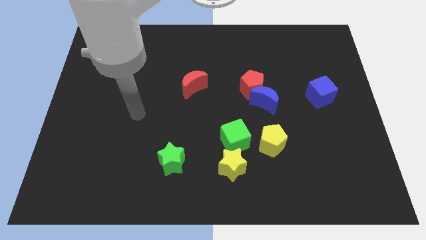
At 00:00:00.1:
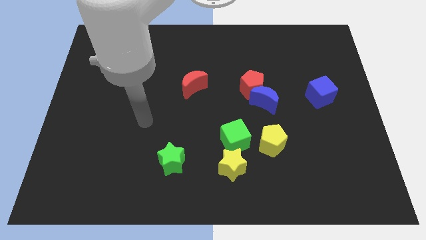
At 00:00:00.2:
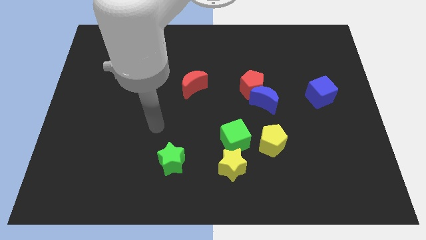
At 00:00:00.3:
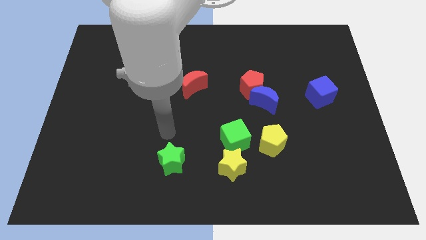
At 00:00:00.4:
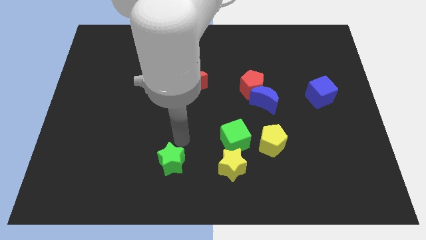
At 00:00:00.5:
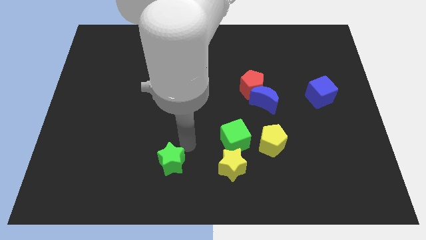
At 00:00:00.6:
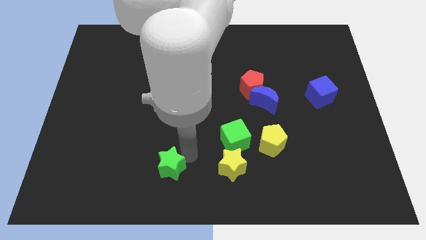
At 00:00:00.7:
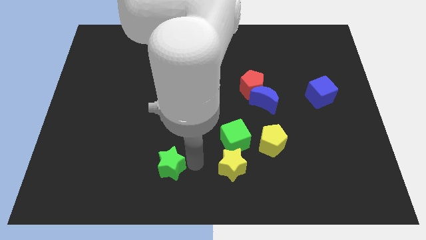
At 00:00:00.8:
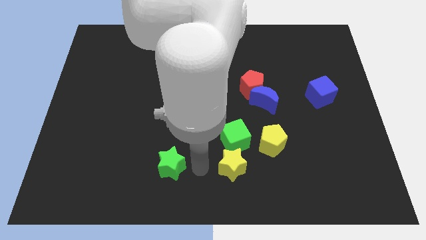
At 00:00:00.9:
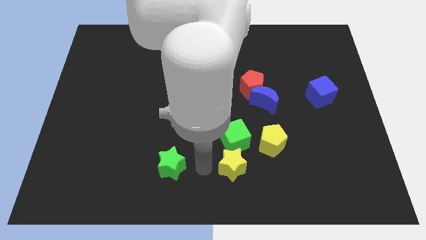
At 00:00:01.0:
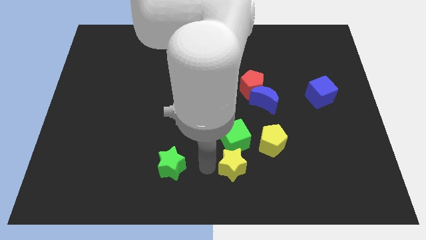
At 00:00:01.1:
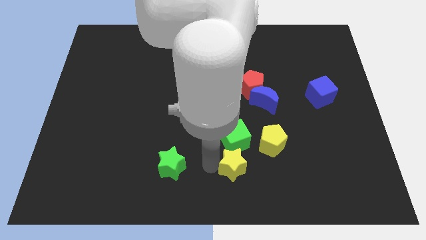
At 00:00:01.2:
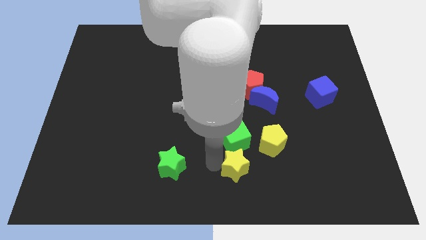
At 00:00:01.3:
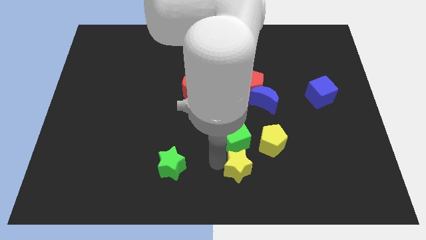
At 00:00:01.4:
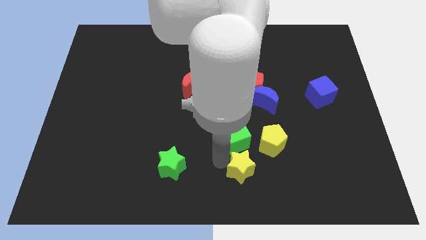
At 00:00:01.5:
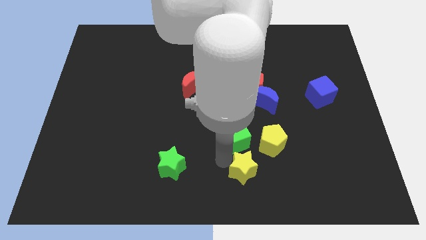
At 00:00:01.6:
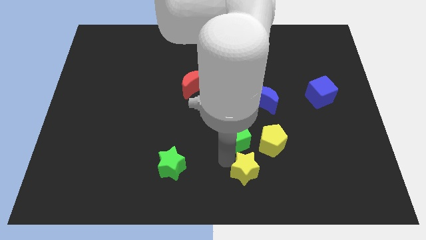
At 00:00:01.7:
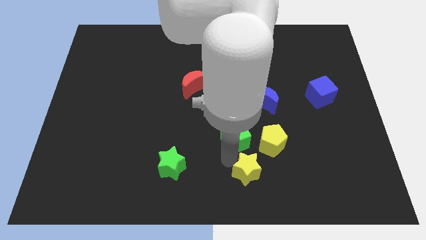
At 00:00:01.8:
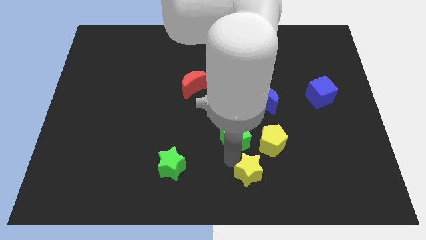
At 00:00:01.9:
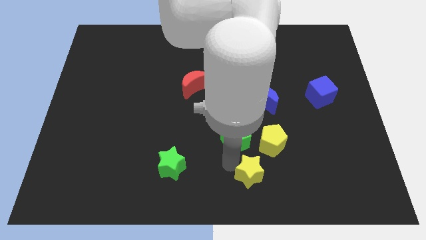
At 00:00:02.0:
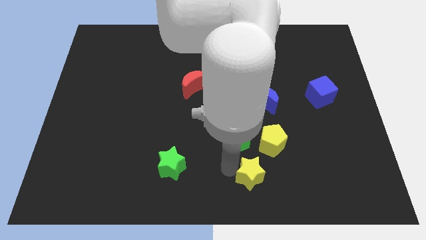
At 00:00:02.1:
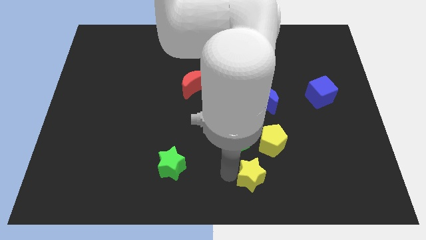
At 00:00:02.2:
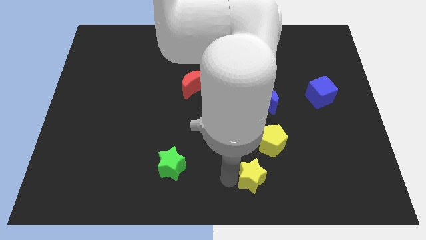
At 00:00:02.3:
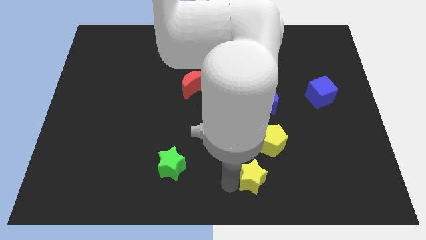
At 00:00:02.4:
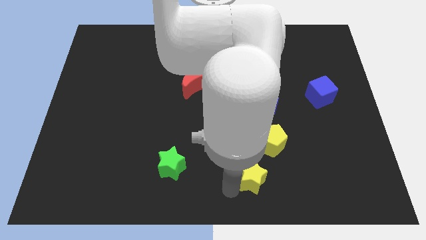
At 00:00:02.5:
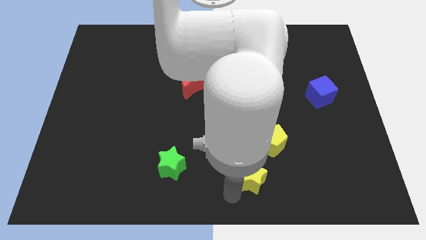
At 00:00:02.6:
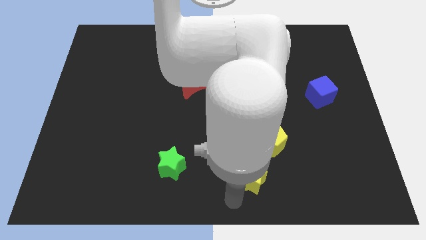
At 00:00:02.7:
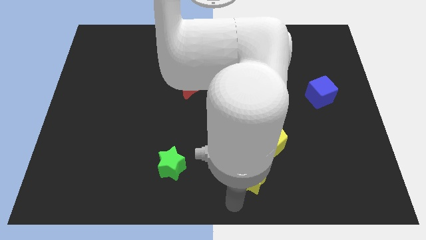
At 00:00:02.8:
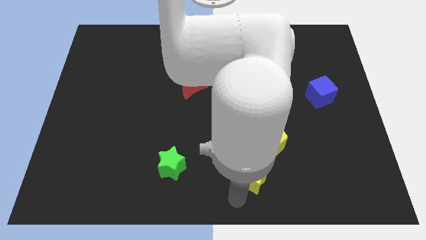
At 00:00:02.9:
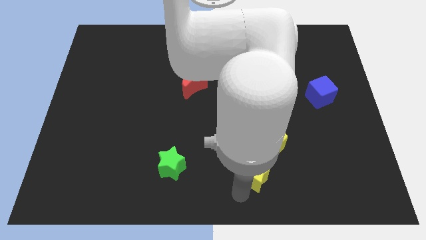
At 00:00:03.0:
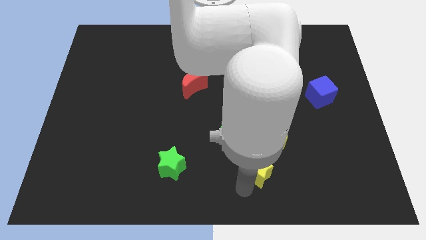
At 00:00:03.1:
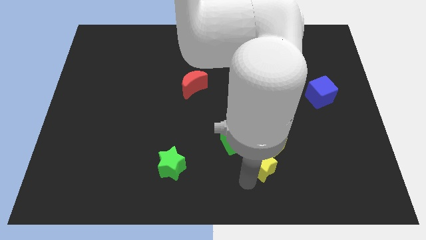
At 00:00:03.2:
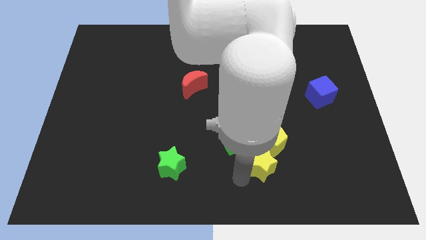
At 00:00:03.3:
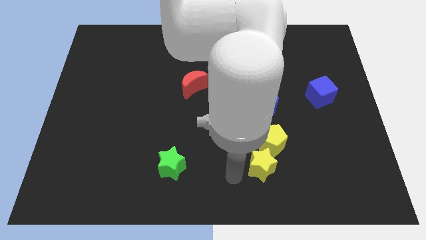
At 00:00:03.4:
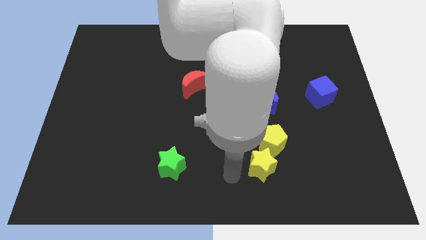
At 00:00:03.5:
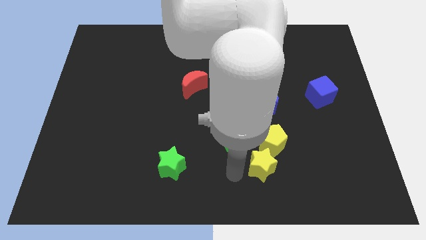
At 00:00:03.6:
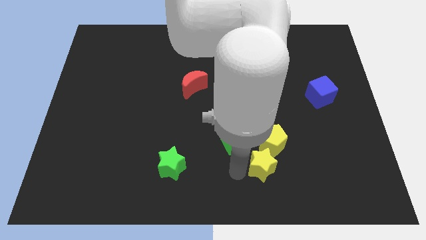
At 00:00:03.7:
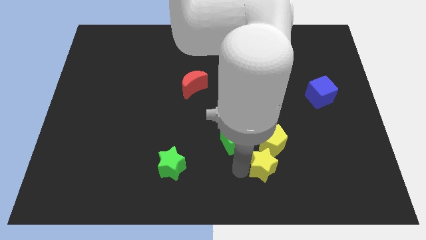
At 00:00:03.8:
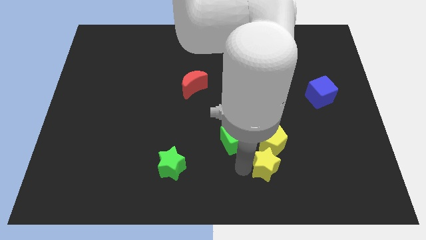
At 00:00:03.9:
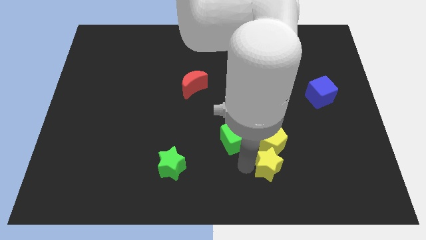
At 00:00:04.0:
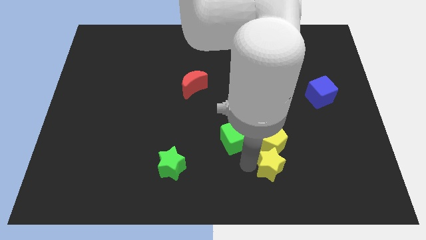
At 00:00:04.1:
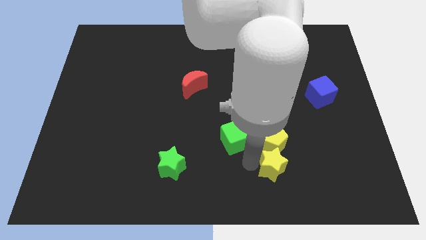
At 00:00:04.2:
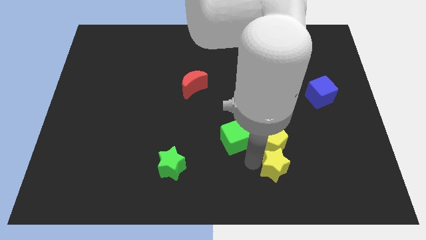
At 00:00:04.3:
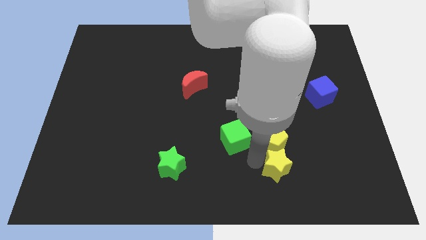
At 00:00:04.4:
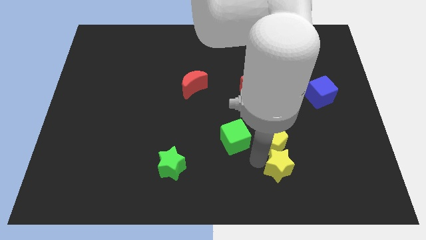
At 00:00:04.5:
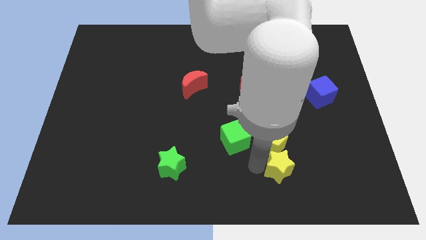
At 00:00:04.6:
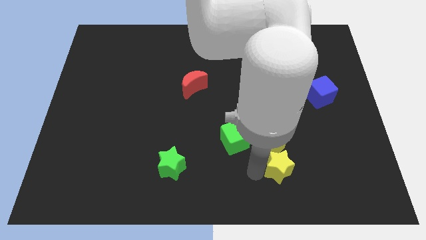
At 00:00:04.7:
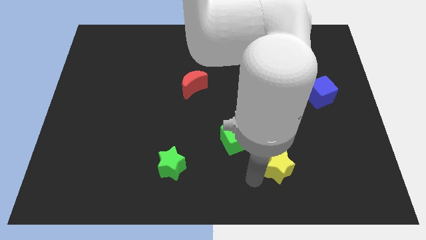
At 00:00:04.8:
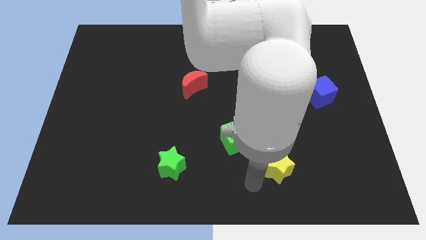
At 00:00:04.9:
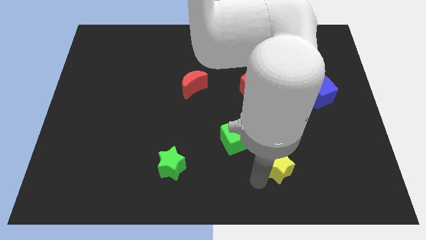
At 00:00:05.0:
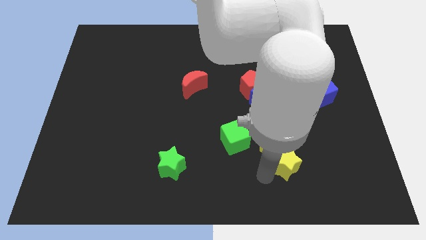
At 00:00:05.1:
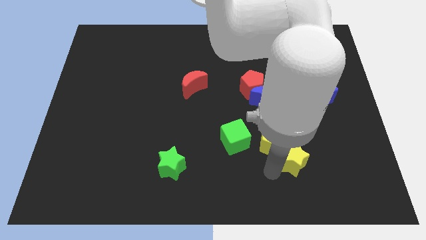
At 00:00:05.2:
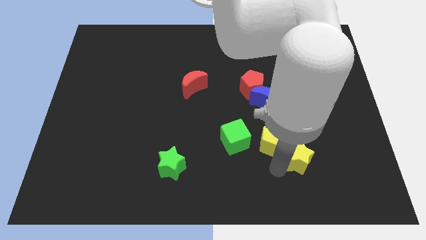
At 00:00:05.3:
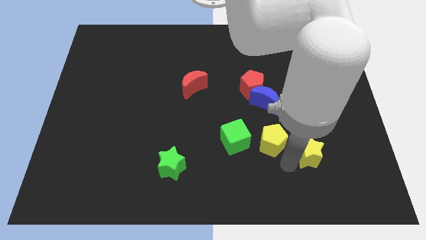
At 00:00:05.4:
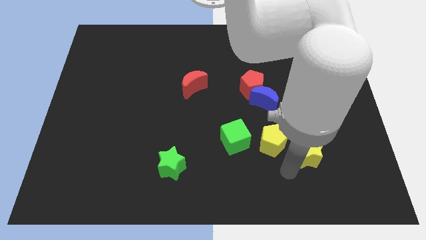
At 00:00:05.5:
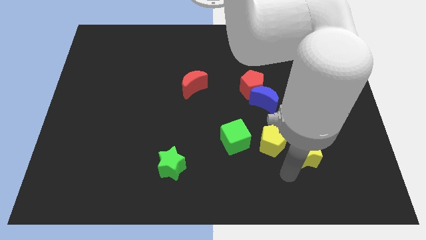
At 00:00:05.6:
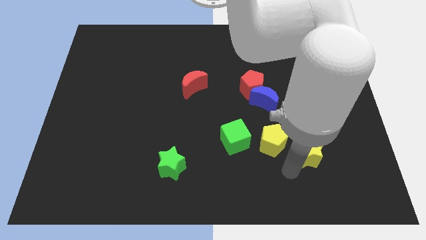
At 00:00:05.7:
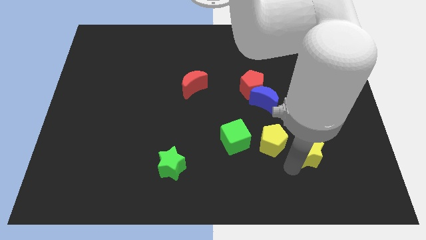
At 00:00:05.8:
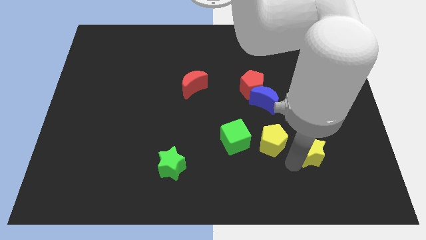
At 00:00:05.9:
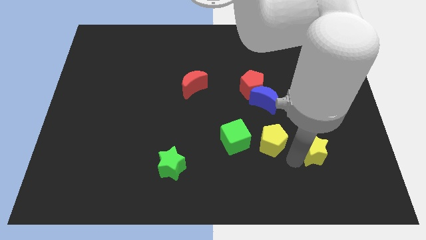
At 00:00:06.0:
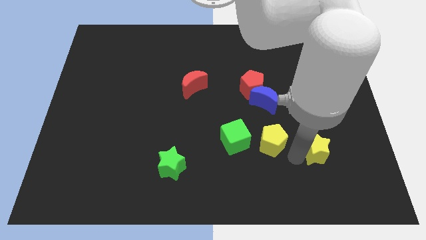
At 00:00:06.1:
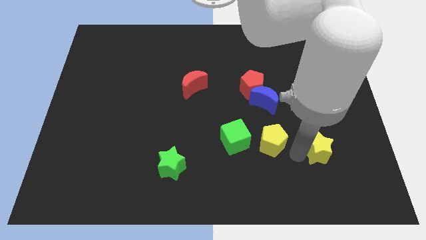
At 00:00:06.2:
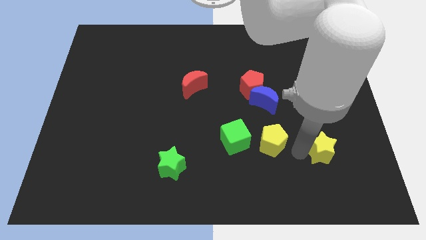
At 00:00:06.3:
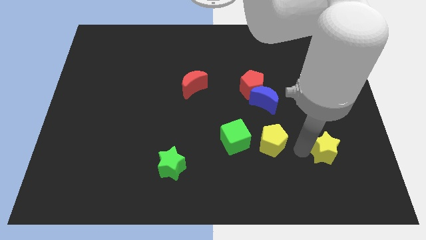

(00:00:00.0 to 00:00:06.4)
push the yellow star to the bottom of the blue cube
